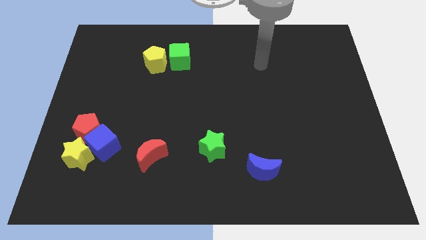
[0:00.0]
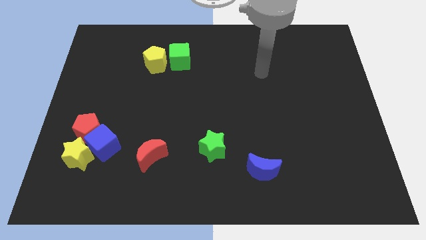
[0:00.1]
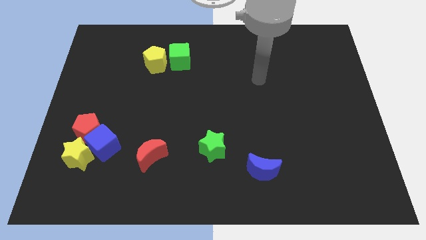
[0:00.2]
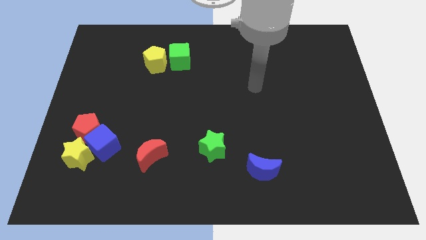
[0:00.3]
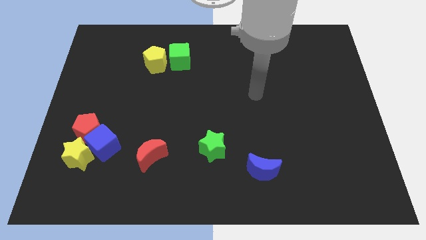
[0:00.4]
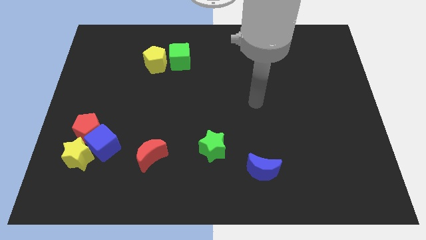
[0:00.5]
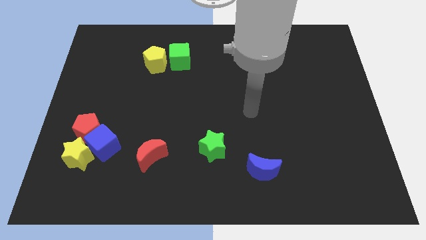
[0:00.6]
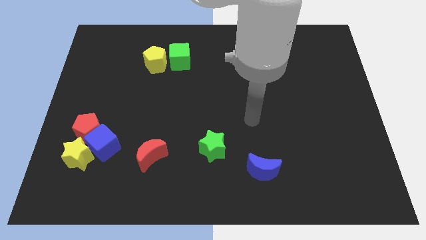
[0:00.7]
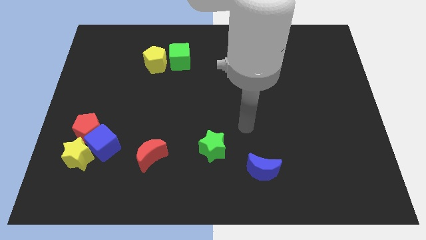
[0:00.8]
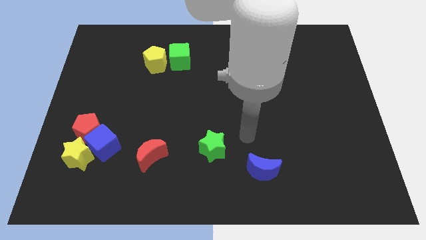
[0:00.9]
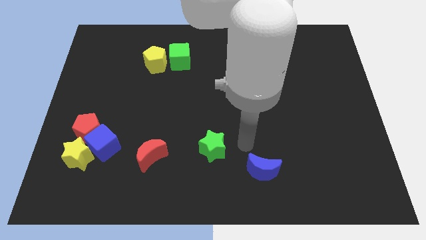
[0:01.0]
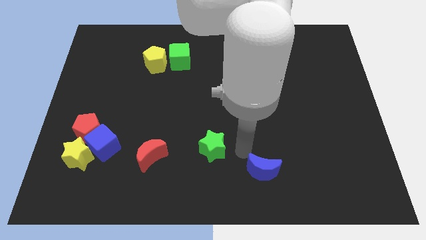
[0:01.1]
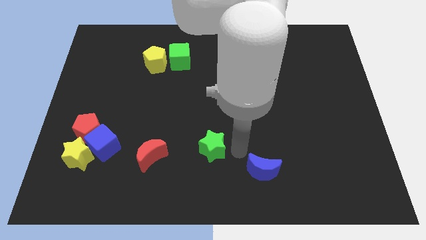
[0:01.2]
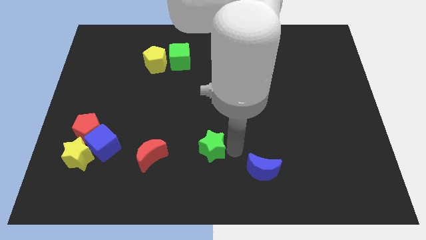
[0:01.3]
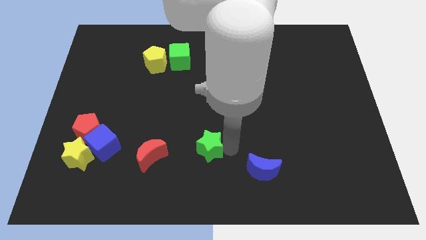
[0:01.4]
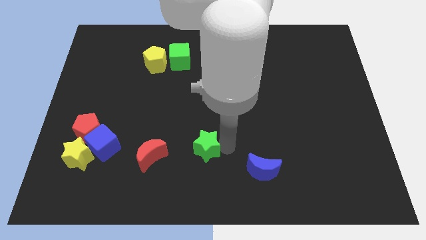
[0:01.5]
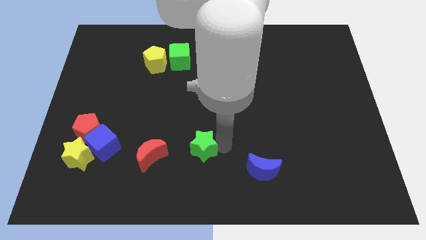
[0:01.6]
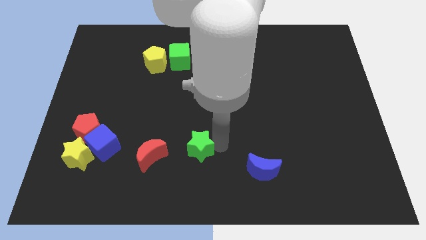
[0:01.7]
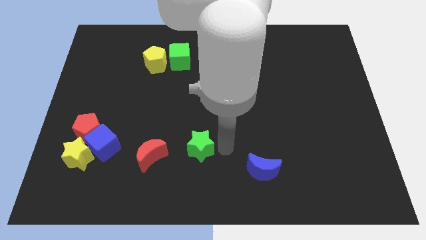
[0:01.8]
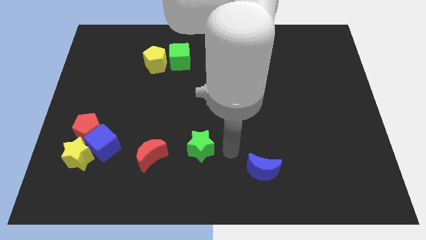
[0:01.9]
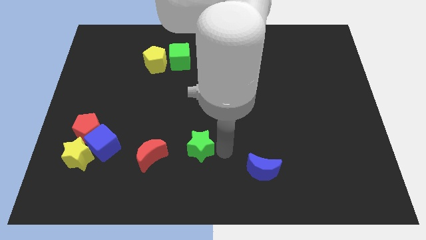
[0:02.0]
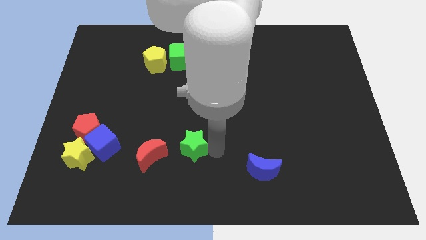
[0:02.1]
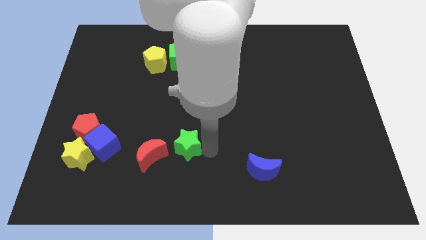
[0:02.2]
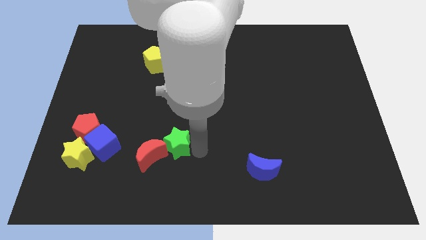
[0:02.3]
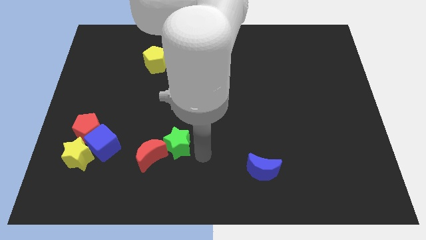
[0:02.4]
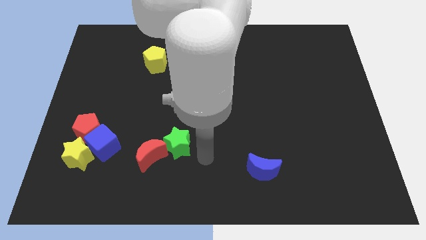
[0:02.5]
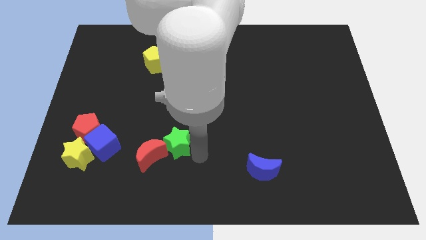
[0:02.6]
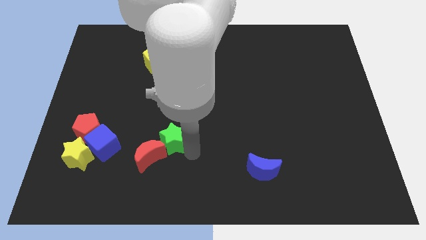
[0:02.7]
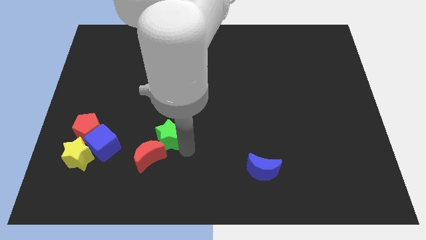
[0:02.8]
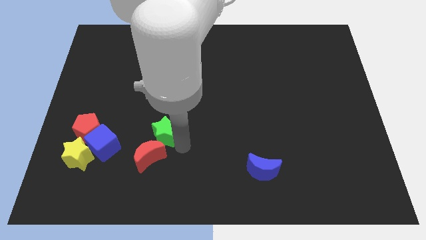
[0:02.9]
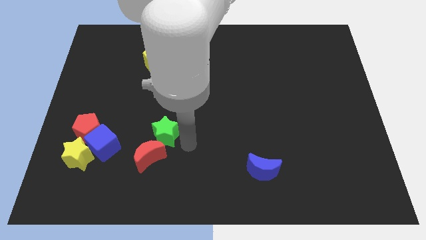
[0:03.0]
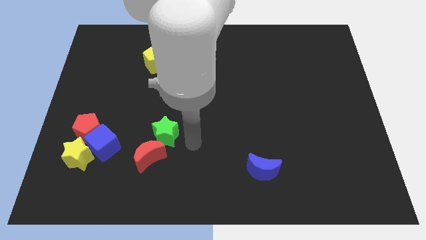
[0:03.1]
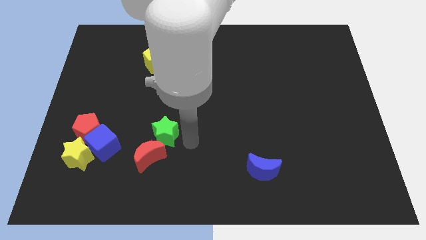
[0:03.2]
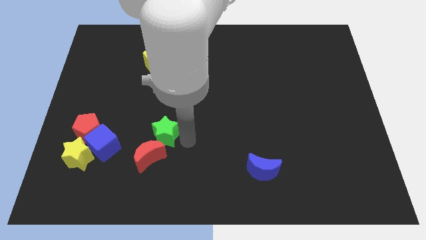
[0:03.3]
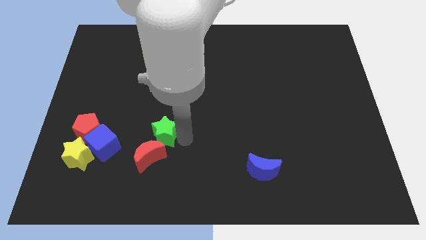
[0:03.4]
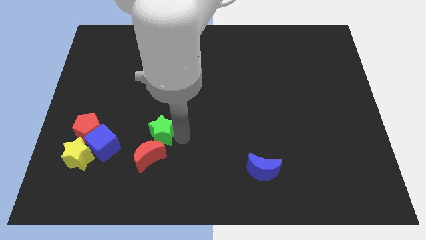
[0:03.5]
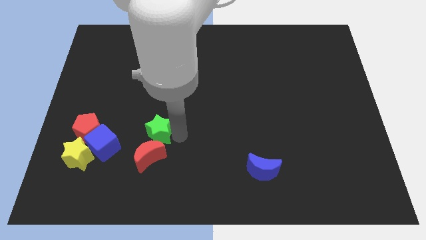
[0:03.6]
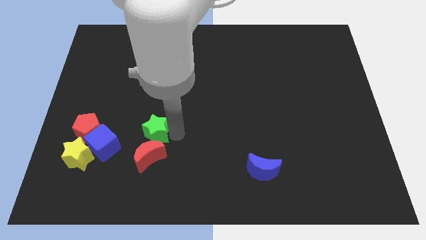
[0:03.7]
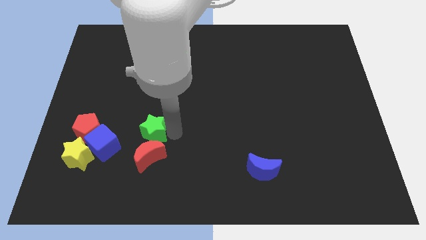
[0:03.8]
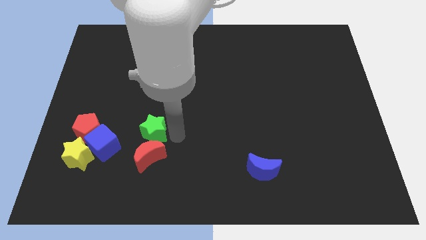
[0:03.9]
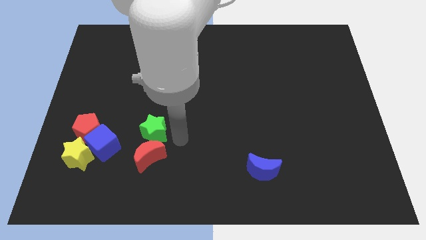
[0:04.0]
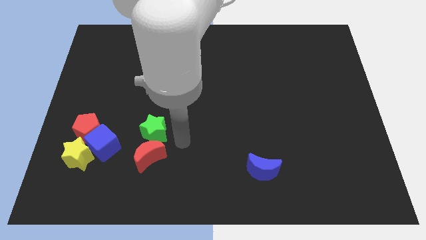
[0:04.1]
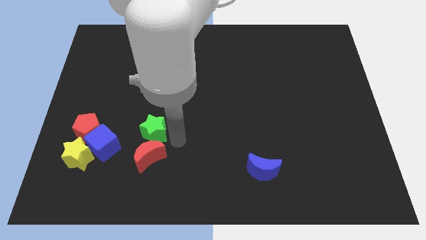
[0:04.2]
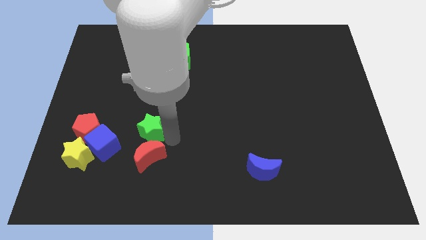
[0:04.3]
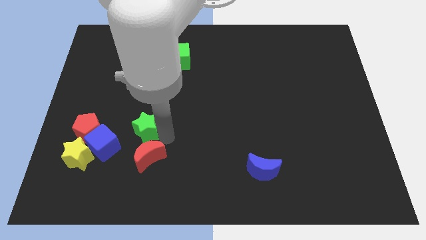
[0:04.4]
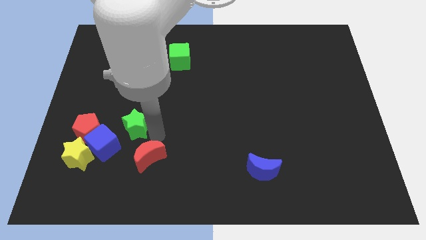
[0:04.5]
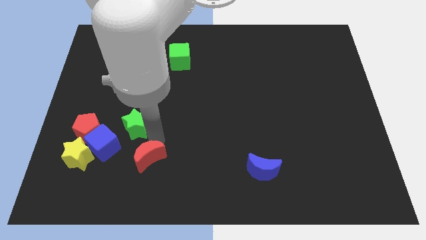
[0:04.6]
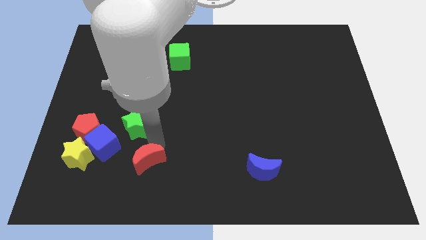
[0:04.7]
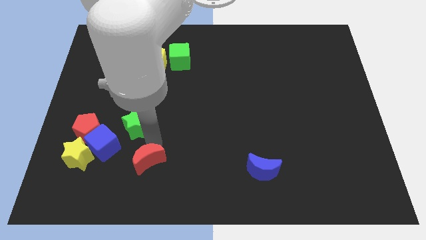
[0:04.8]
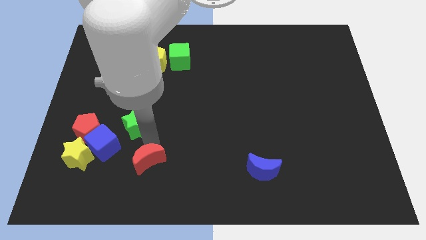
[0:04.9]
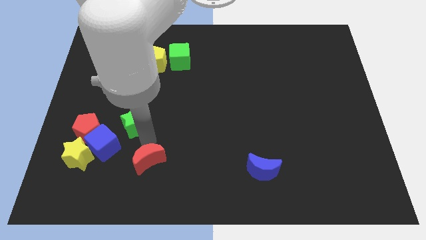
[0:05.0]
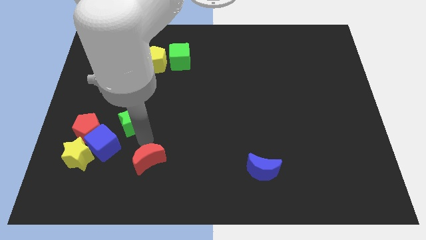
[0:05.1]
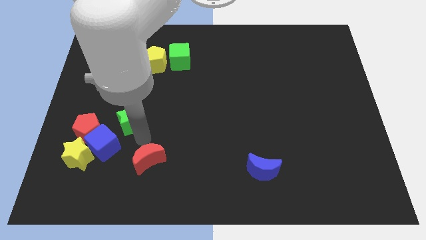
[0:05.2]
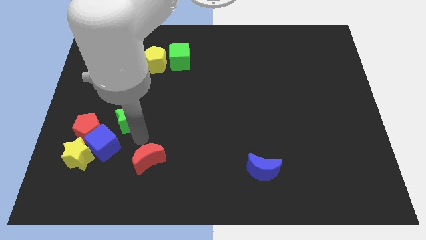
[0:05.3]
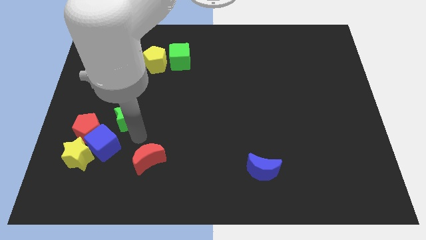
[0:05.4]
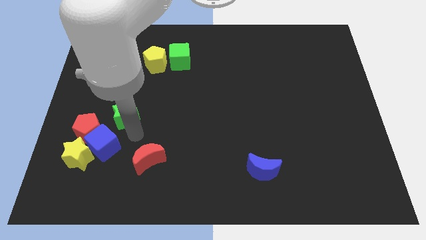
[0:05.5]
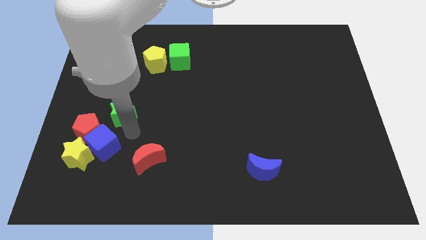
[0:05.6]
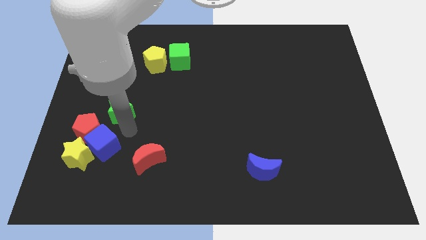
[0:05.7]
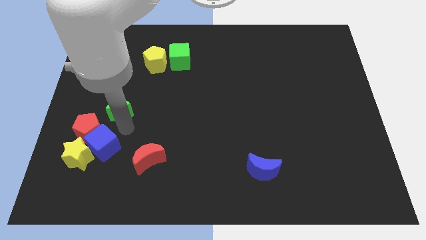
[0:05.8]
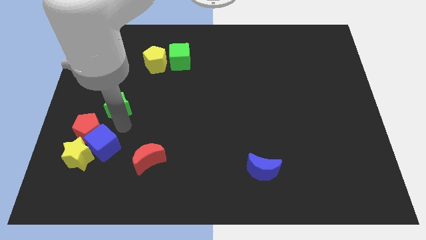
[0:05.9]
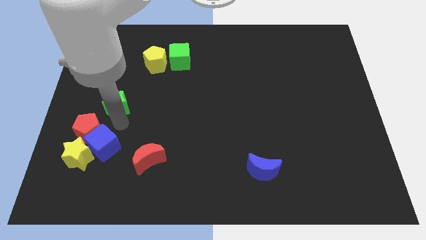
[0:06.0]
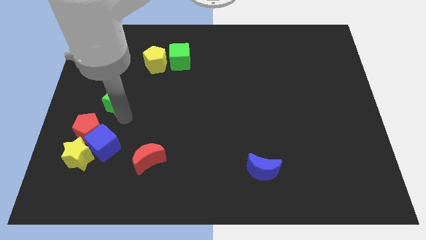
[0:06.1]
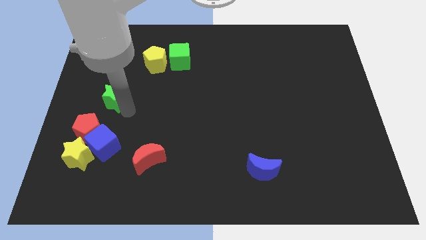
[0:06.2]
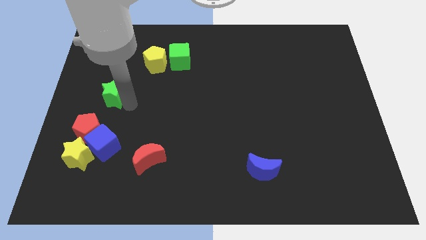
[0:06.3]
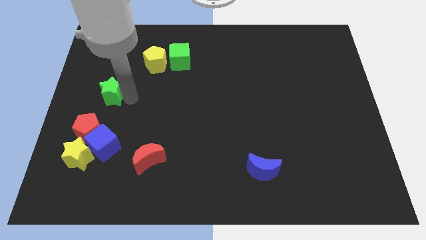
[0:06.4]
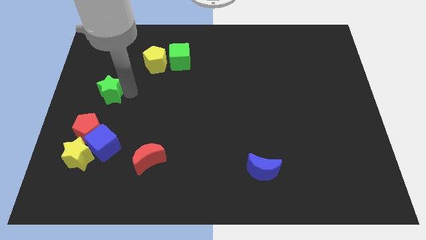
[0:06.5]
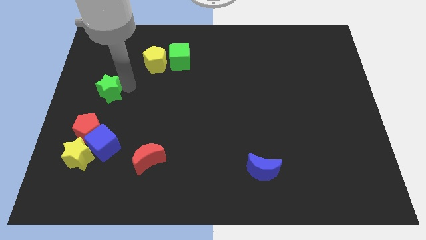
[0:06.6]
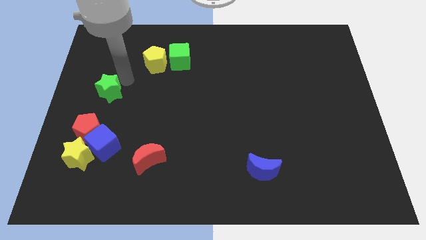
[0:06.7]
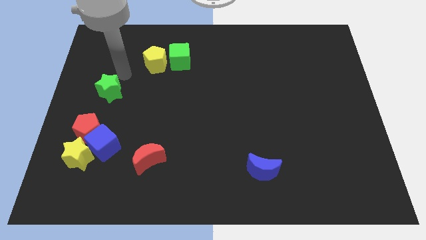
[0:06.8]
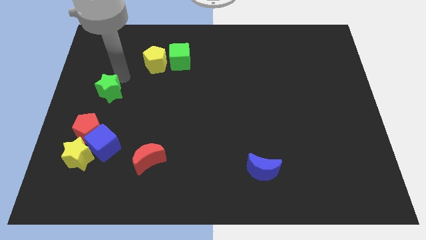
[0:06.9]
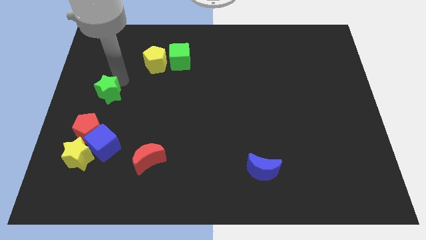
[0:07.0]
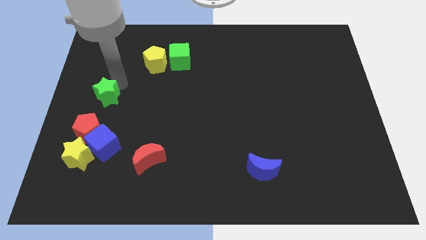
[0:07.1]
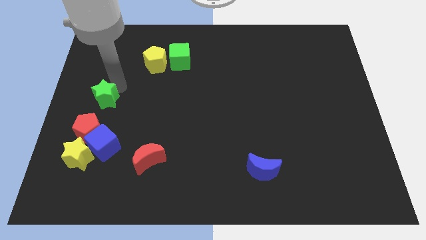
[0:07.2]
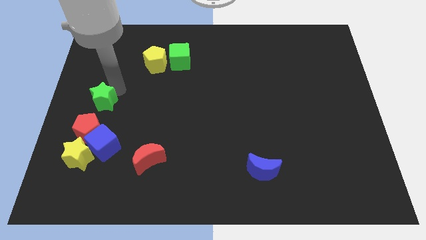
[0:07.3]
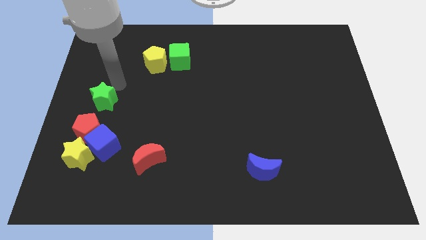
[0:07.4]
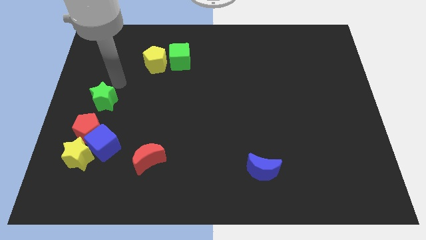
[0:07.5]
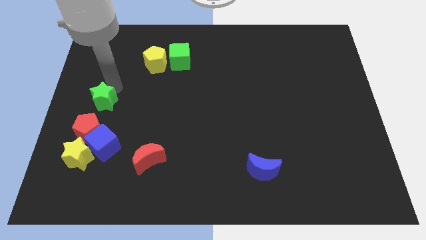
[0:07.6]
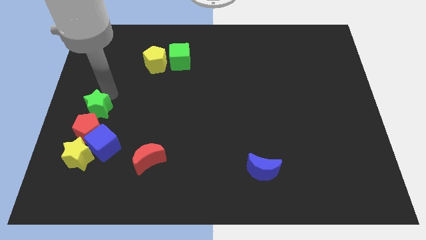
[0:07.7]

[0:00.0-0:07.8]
move the green star to the top left of the blue cube
